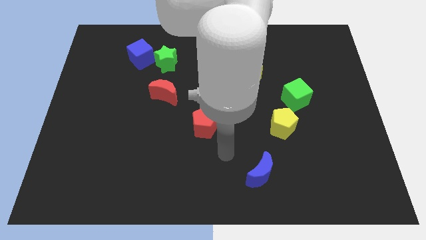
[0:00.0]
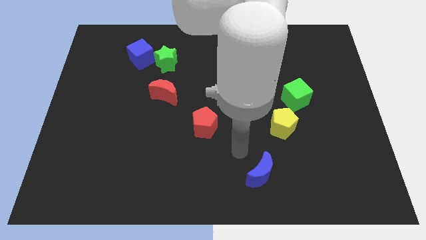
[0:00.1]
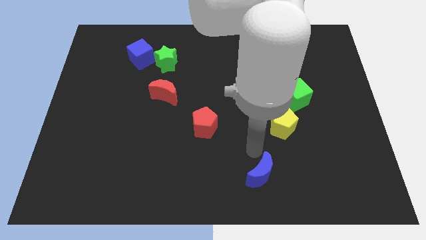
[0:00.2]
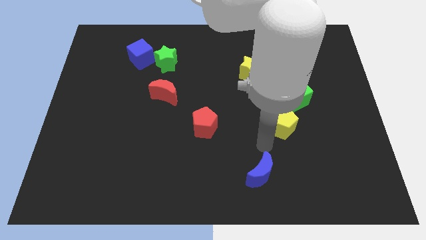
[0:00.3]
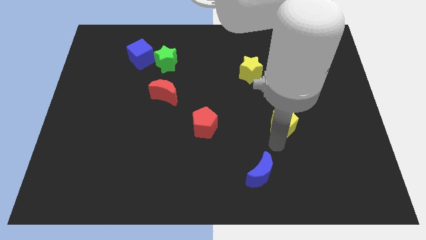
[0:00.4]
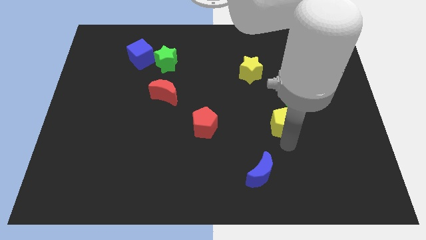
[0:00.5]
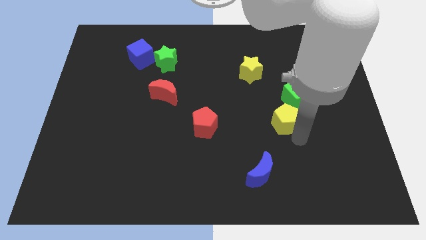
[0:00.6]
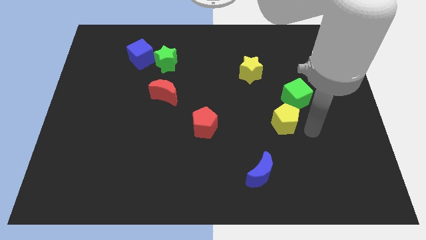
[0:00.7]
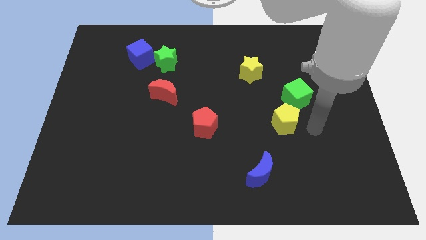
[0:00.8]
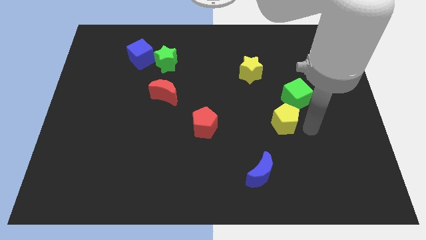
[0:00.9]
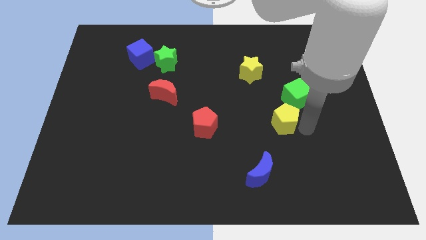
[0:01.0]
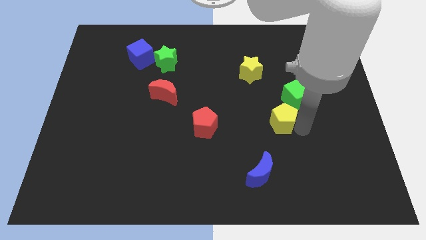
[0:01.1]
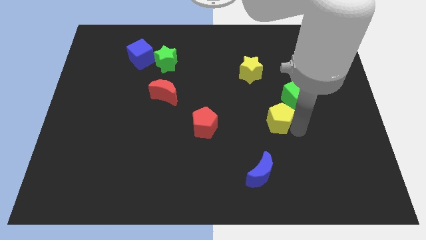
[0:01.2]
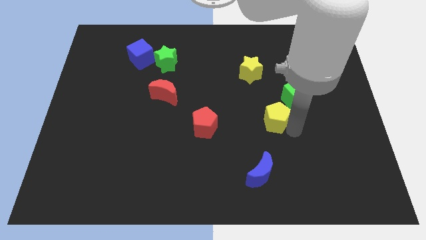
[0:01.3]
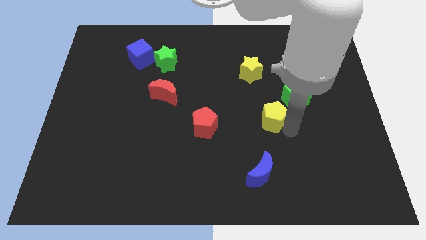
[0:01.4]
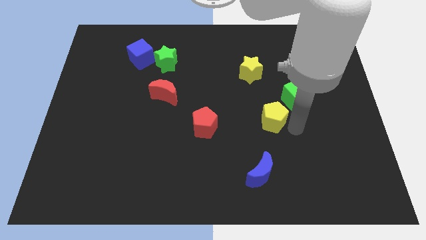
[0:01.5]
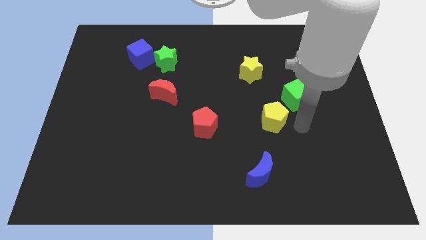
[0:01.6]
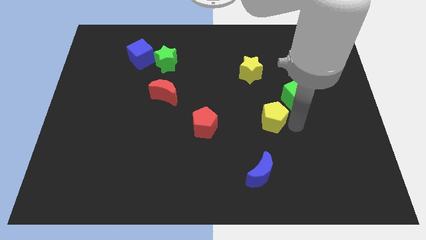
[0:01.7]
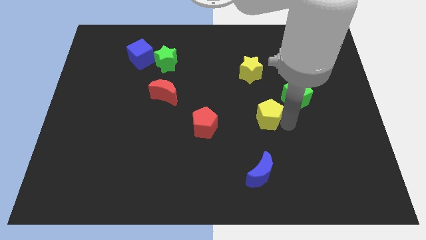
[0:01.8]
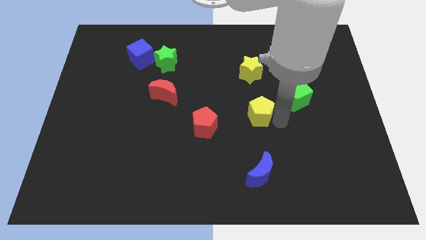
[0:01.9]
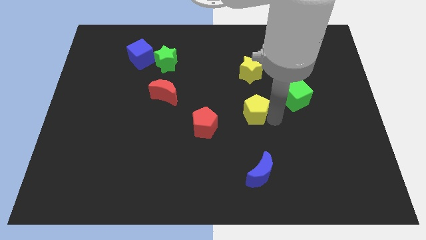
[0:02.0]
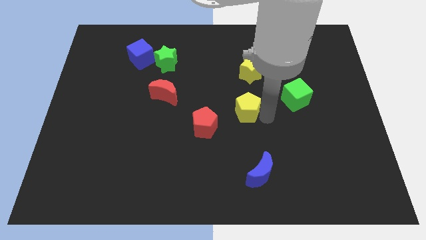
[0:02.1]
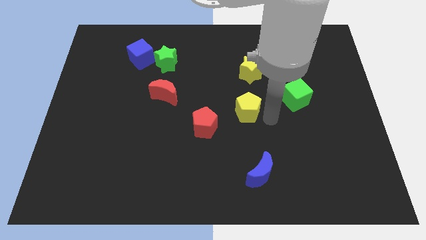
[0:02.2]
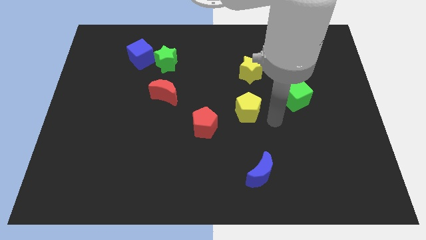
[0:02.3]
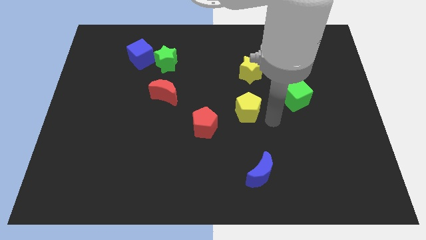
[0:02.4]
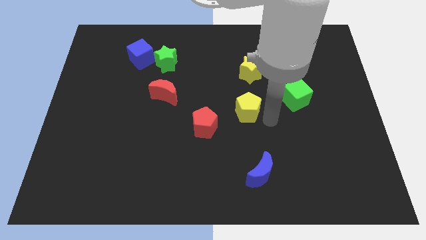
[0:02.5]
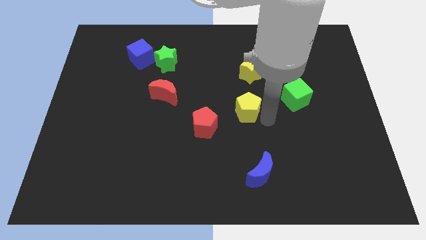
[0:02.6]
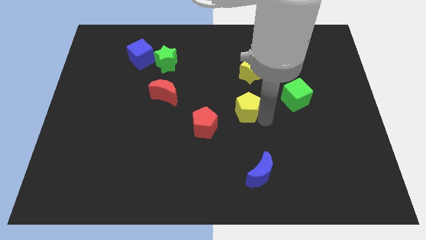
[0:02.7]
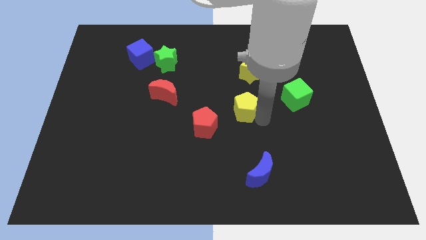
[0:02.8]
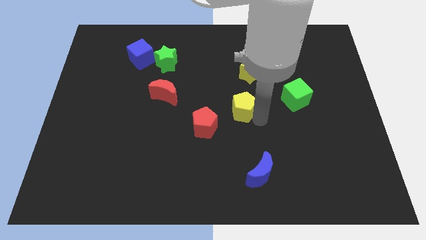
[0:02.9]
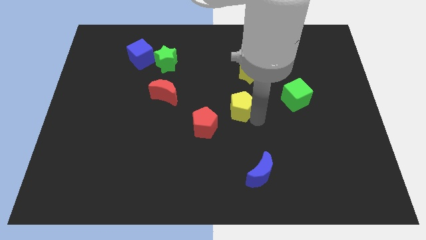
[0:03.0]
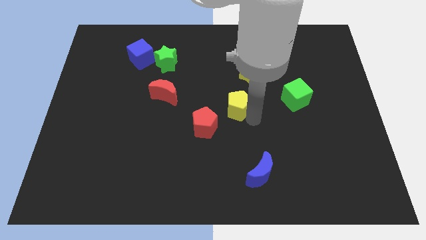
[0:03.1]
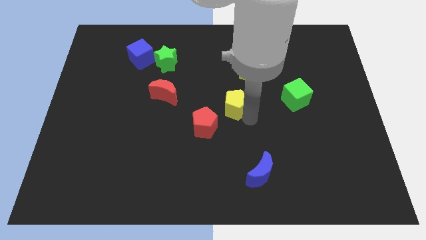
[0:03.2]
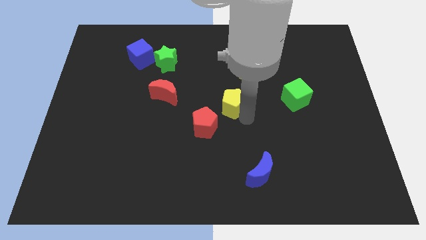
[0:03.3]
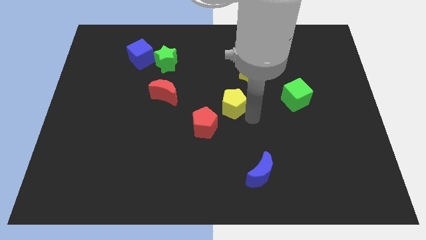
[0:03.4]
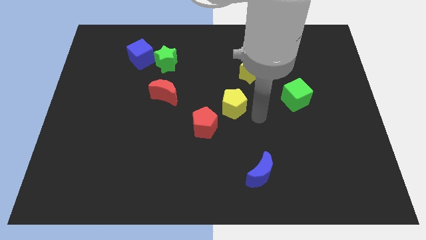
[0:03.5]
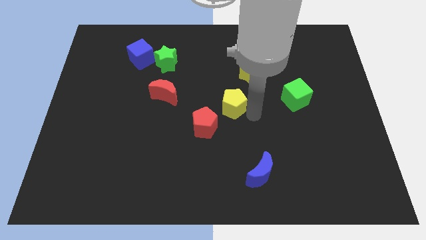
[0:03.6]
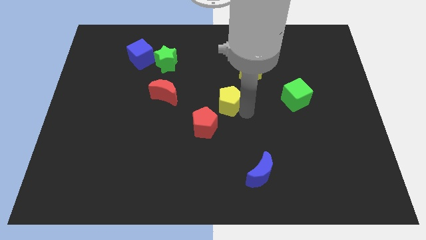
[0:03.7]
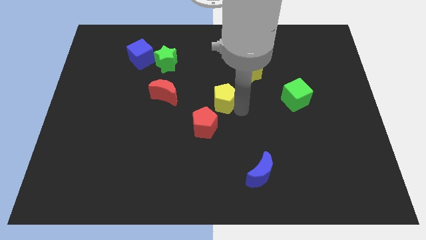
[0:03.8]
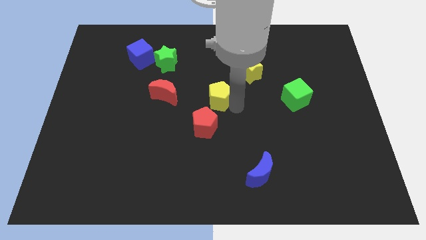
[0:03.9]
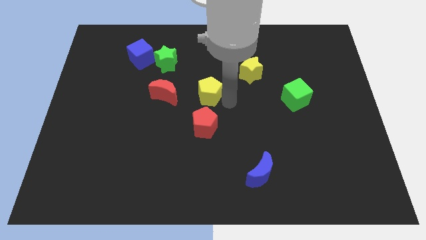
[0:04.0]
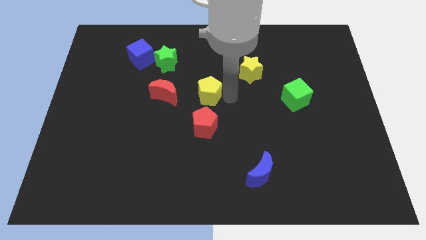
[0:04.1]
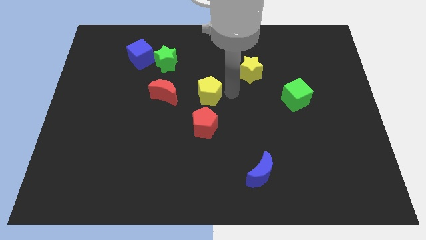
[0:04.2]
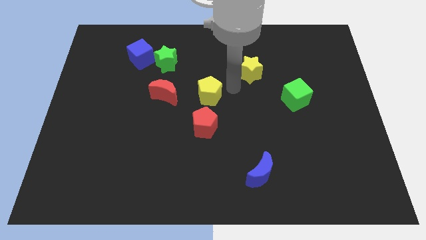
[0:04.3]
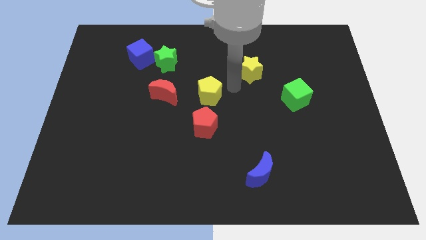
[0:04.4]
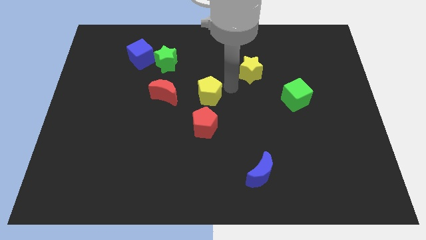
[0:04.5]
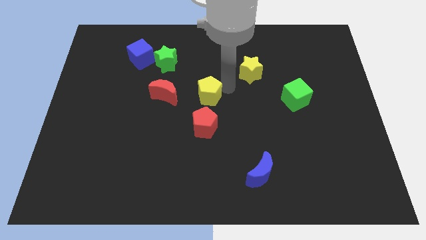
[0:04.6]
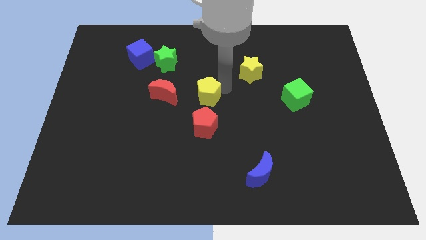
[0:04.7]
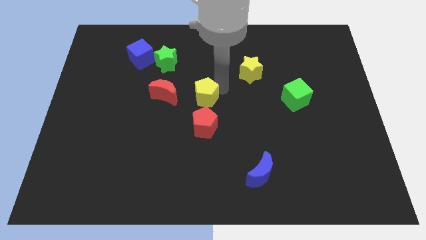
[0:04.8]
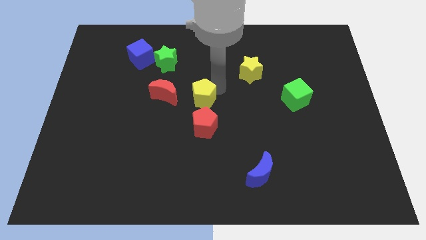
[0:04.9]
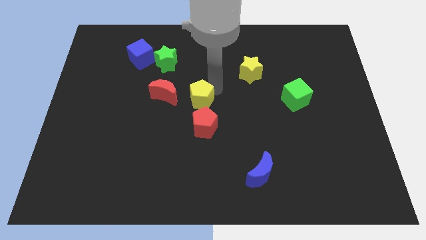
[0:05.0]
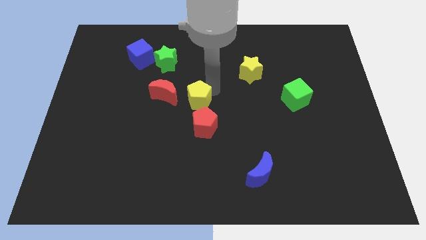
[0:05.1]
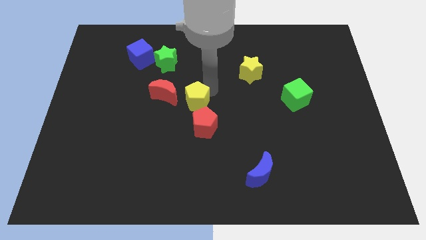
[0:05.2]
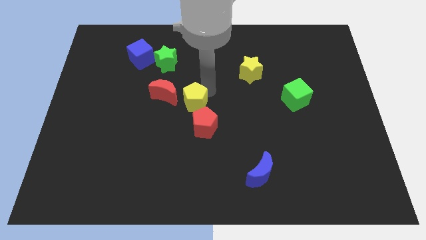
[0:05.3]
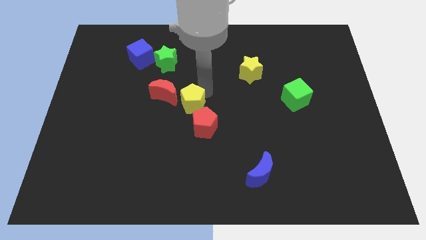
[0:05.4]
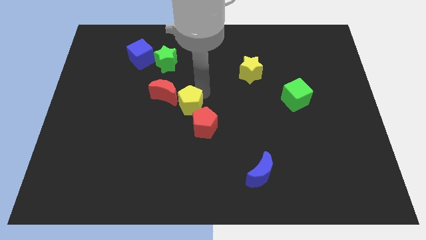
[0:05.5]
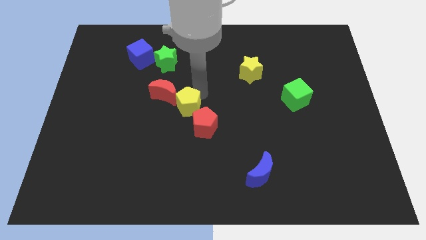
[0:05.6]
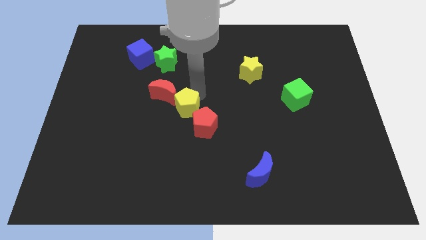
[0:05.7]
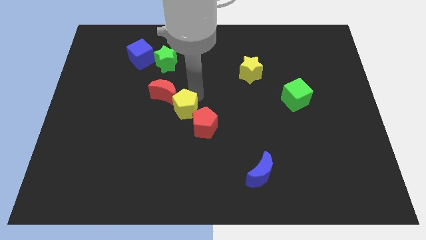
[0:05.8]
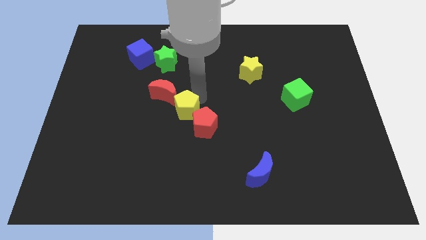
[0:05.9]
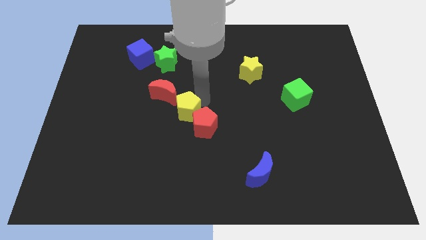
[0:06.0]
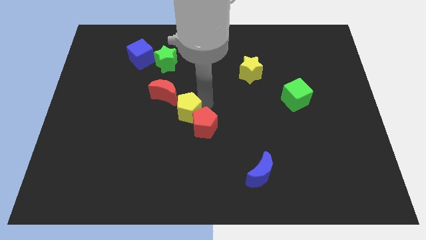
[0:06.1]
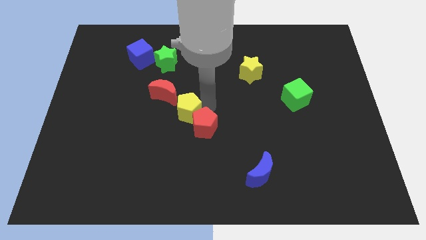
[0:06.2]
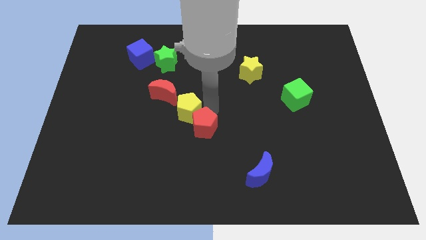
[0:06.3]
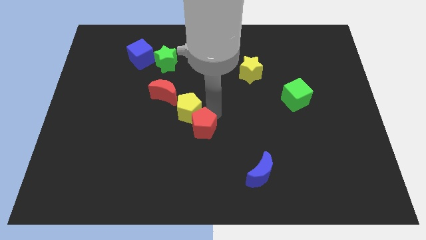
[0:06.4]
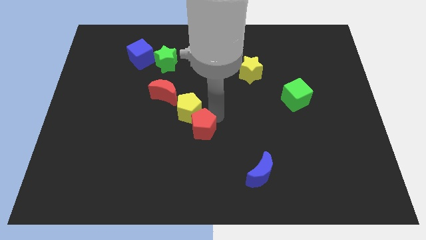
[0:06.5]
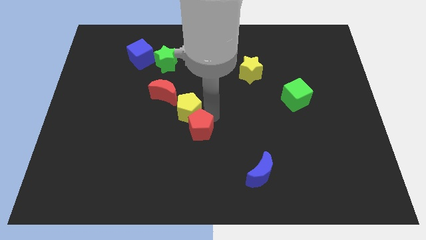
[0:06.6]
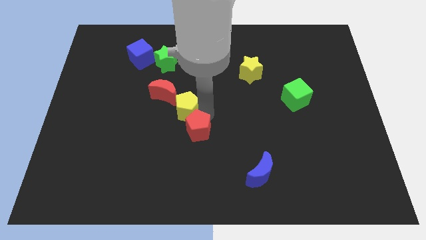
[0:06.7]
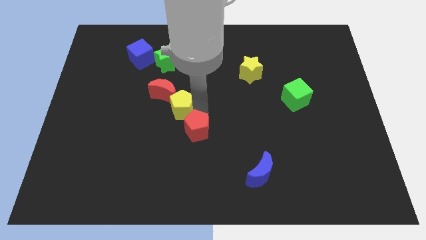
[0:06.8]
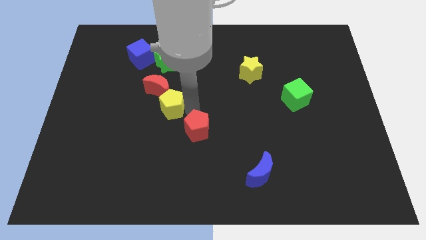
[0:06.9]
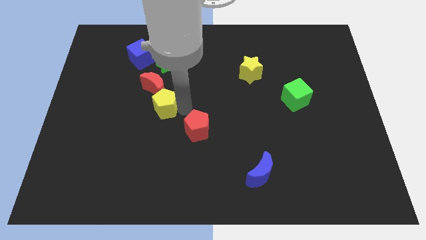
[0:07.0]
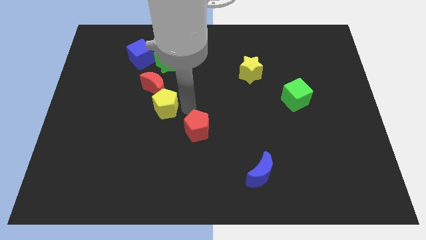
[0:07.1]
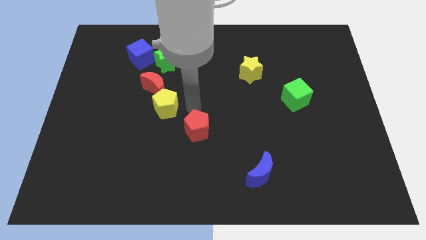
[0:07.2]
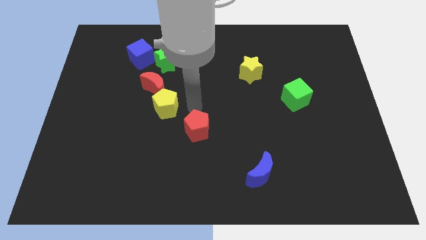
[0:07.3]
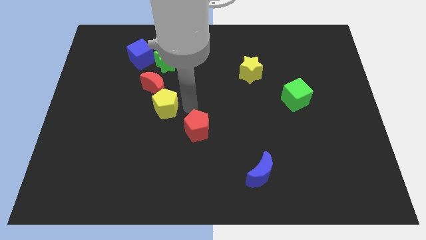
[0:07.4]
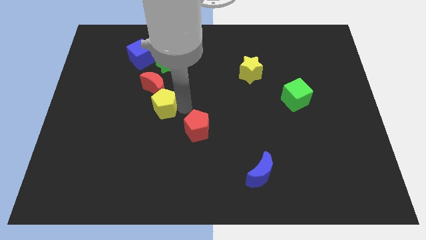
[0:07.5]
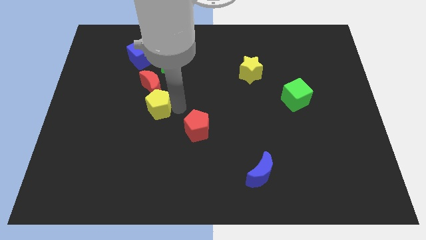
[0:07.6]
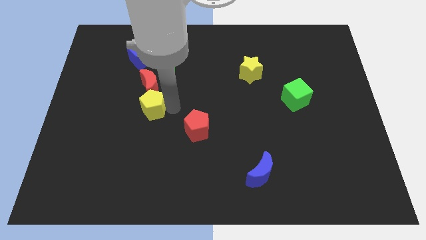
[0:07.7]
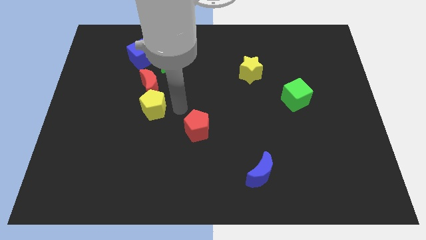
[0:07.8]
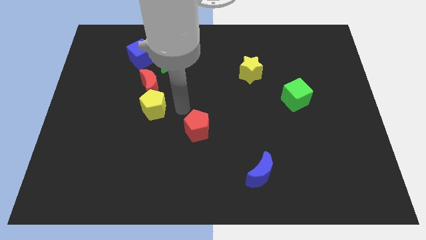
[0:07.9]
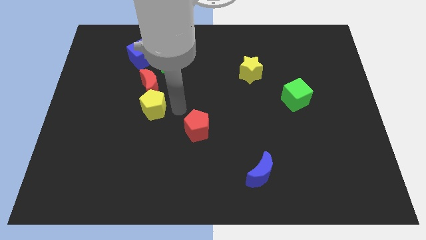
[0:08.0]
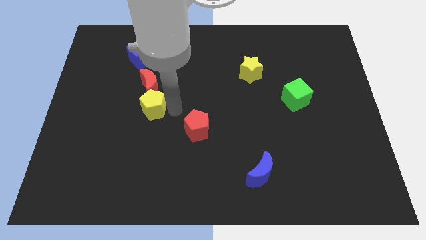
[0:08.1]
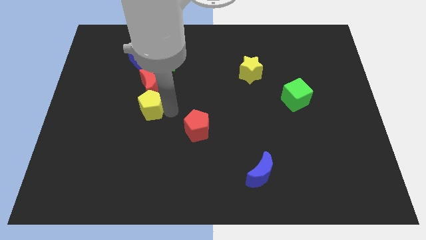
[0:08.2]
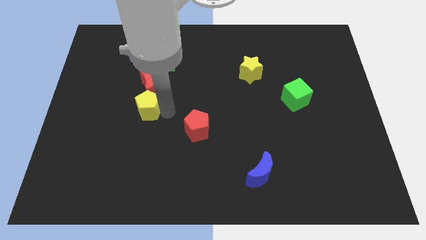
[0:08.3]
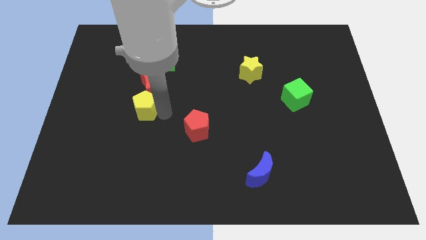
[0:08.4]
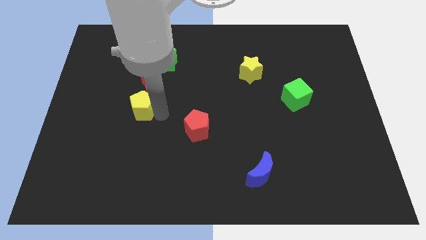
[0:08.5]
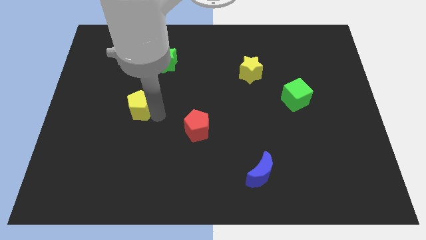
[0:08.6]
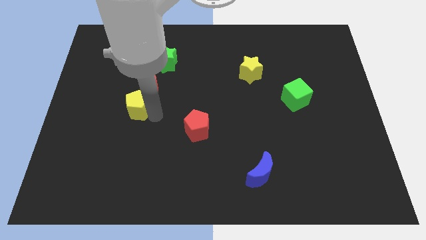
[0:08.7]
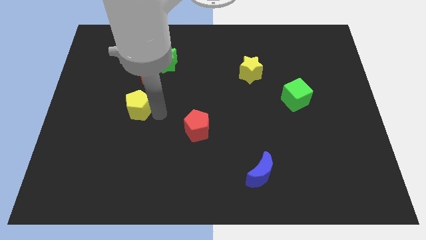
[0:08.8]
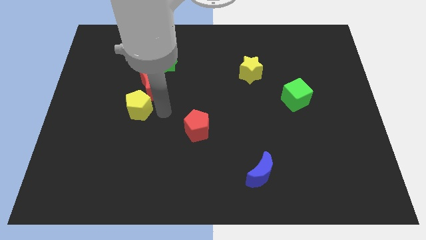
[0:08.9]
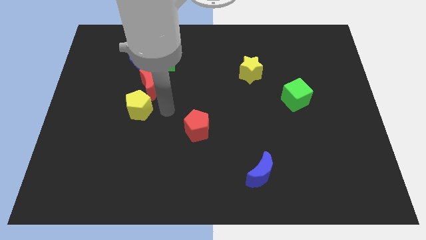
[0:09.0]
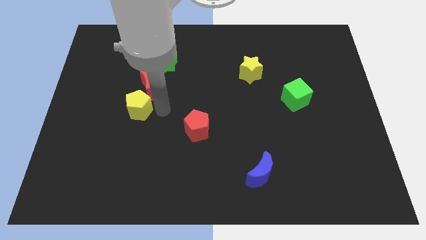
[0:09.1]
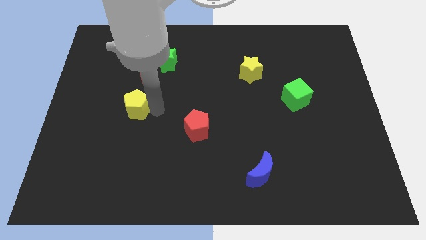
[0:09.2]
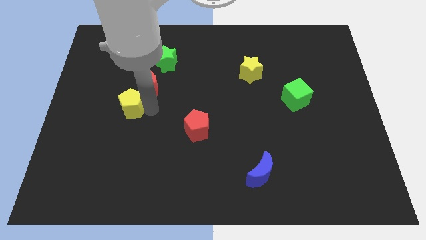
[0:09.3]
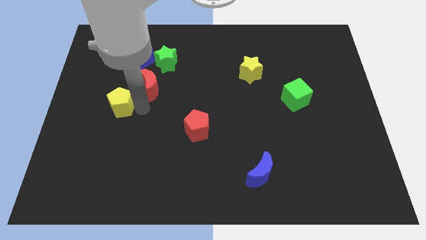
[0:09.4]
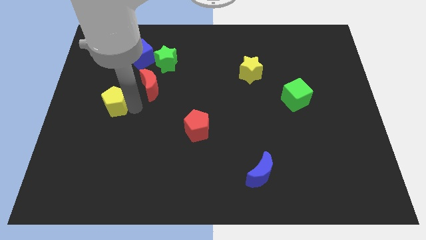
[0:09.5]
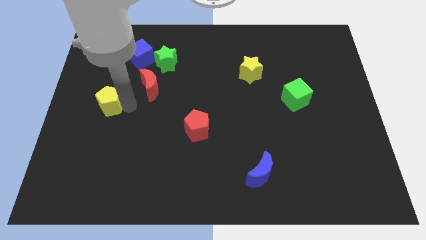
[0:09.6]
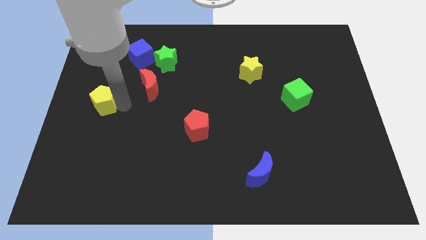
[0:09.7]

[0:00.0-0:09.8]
slide the yellow pentagon to the left side of the board
